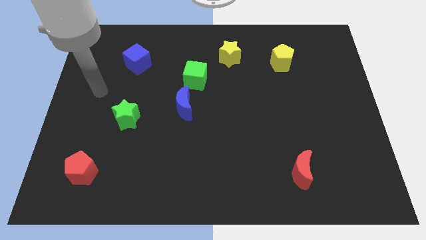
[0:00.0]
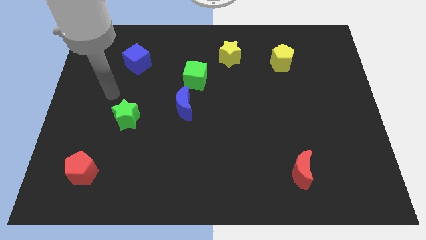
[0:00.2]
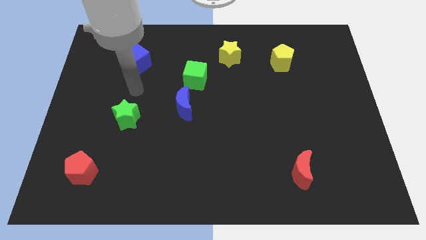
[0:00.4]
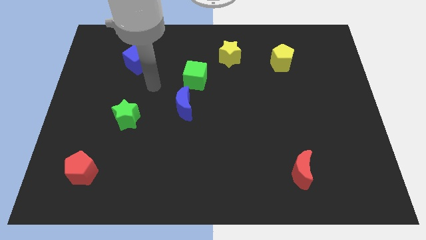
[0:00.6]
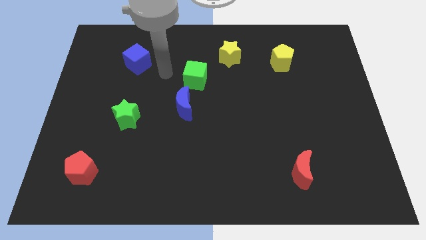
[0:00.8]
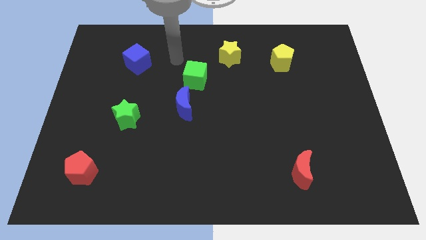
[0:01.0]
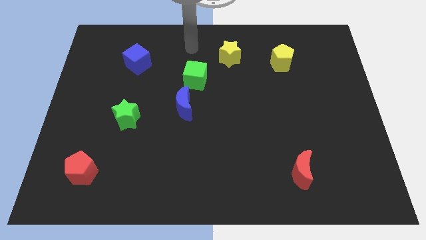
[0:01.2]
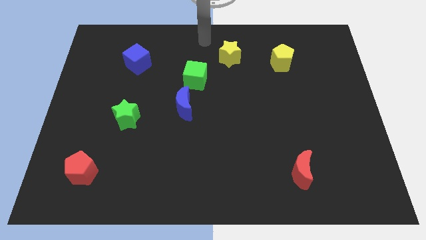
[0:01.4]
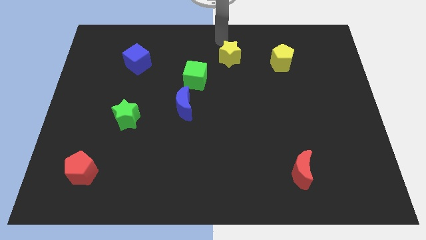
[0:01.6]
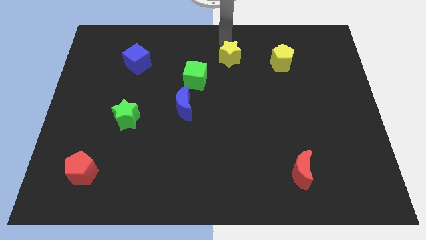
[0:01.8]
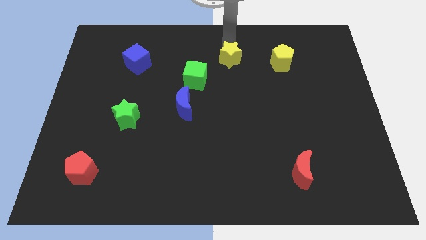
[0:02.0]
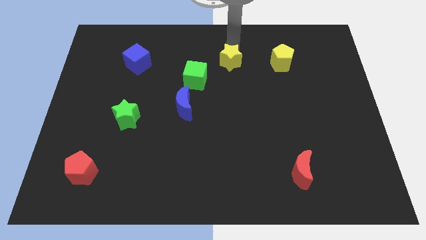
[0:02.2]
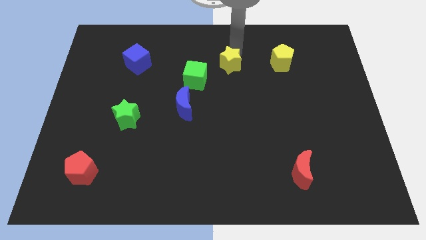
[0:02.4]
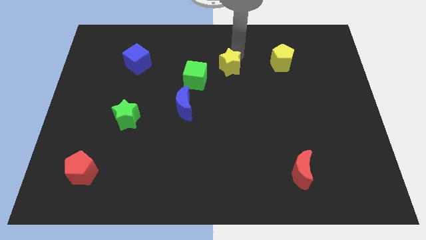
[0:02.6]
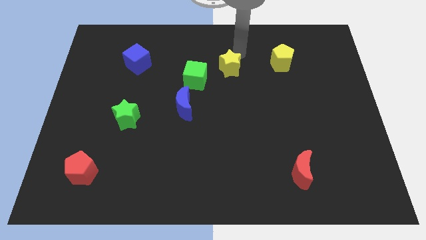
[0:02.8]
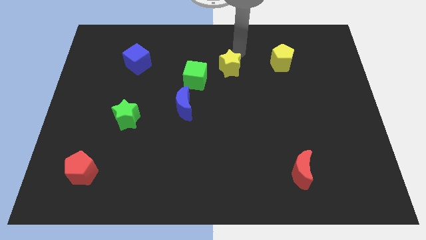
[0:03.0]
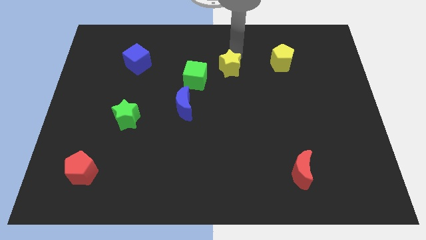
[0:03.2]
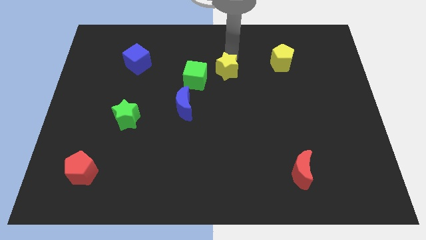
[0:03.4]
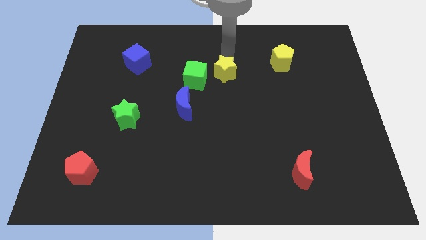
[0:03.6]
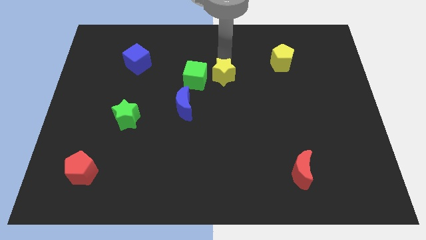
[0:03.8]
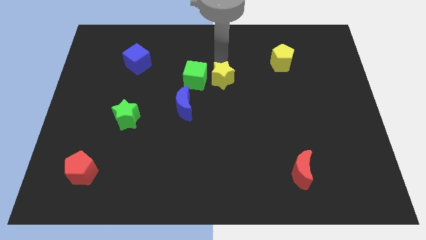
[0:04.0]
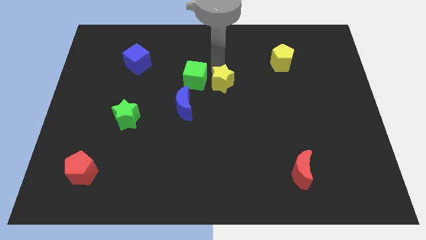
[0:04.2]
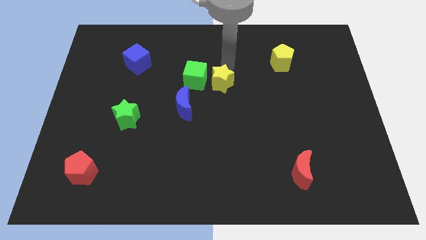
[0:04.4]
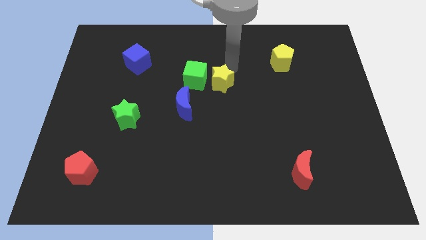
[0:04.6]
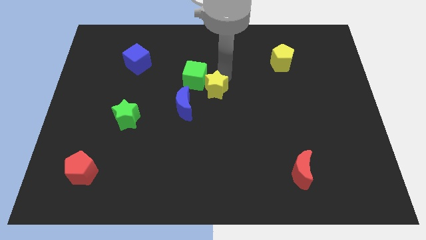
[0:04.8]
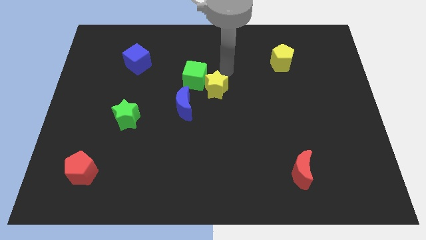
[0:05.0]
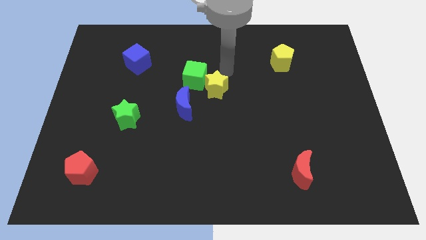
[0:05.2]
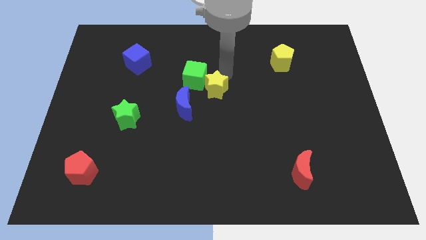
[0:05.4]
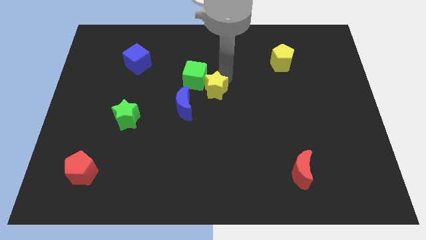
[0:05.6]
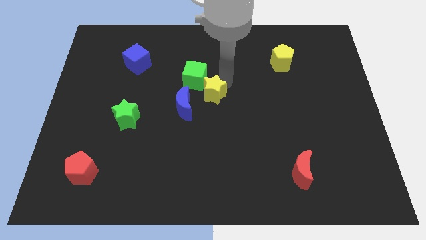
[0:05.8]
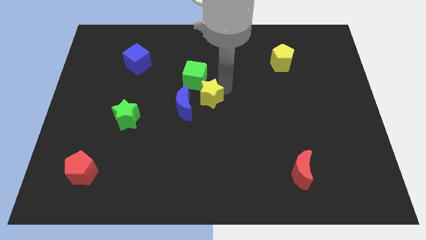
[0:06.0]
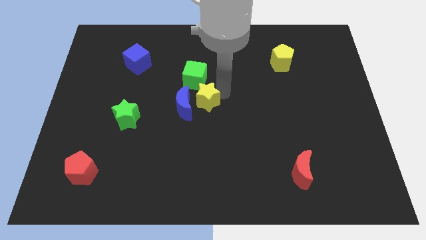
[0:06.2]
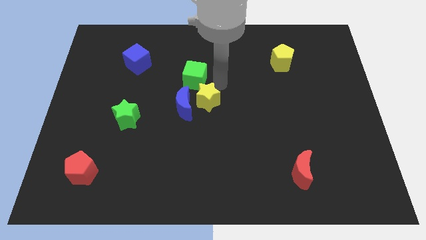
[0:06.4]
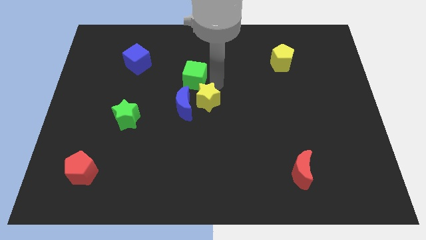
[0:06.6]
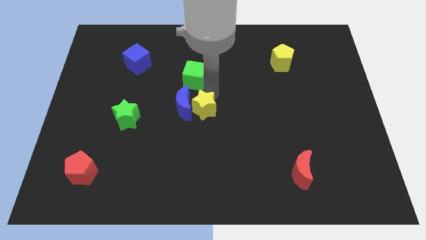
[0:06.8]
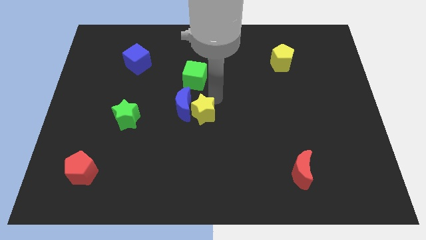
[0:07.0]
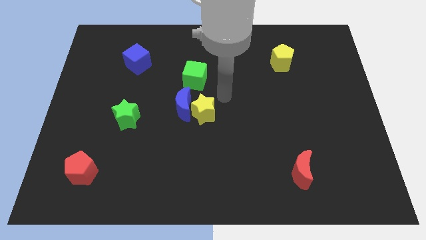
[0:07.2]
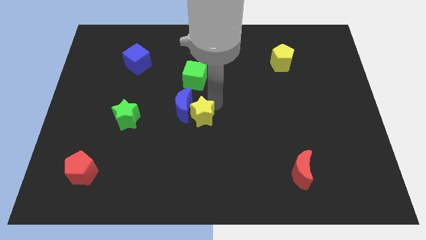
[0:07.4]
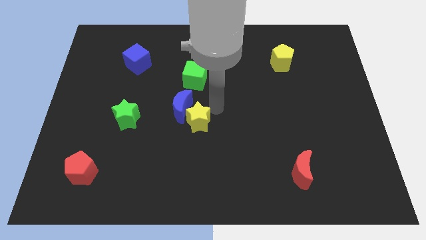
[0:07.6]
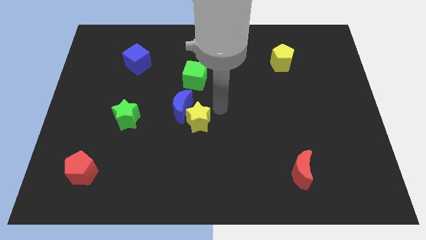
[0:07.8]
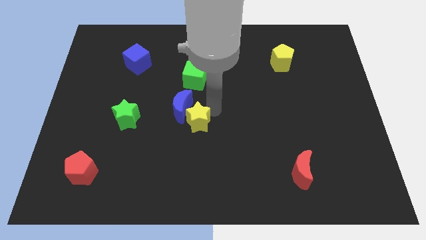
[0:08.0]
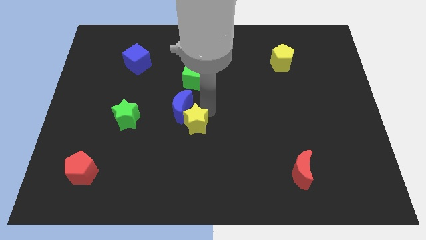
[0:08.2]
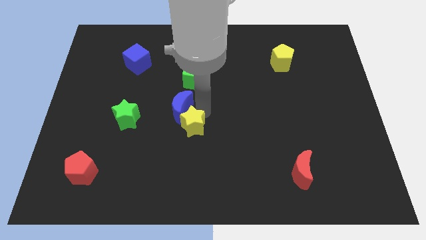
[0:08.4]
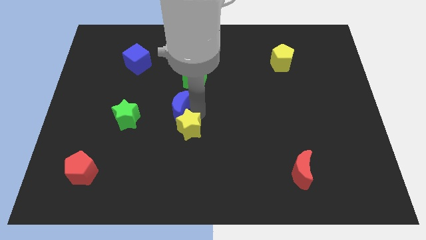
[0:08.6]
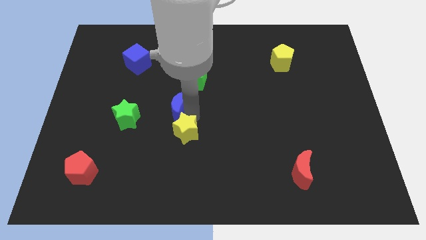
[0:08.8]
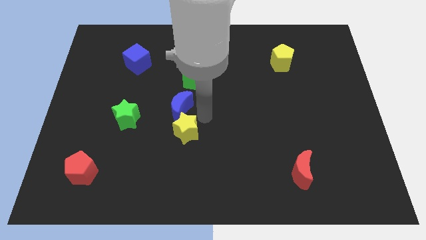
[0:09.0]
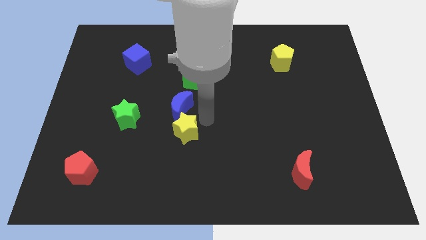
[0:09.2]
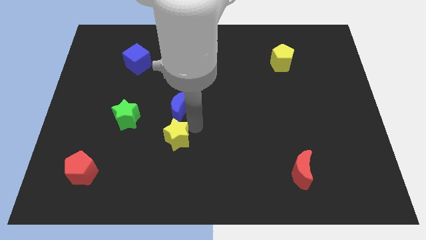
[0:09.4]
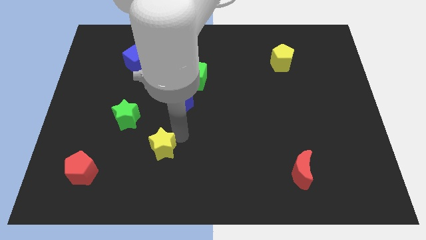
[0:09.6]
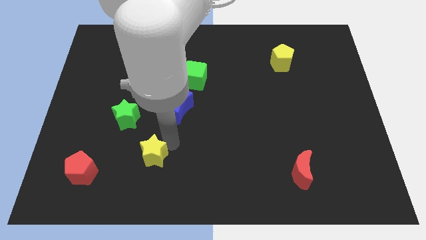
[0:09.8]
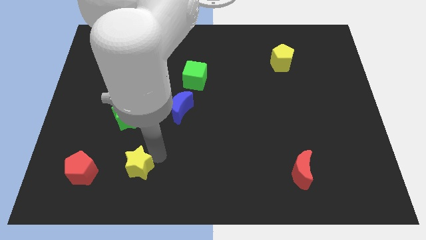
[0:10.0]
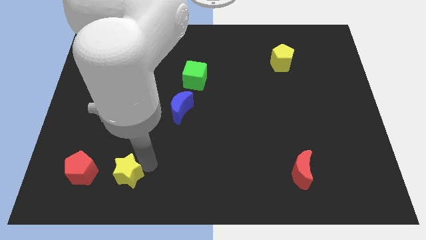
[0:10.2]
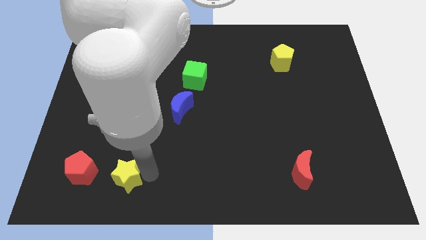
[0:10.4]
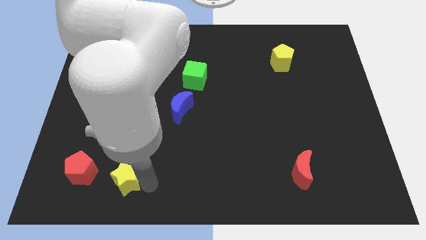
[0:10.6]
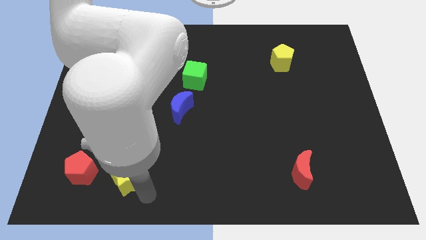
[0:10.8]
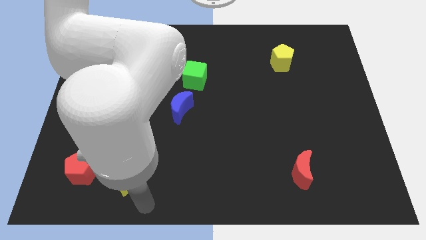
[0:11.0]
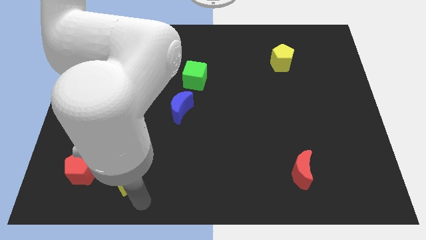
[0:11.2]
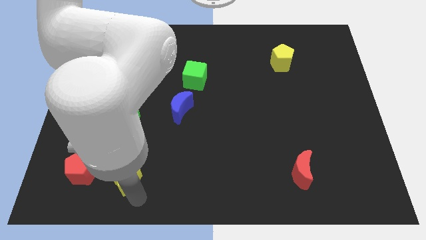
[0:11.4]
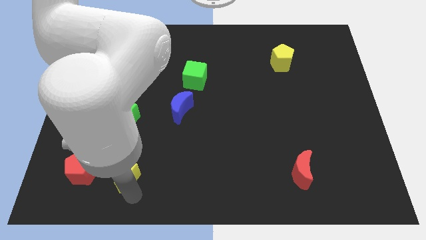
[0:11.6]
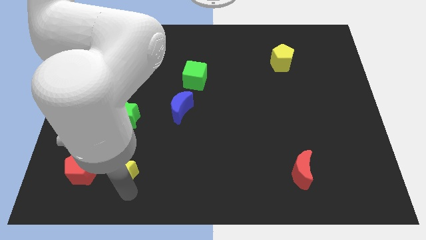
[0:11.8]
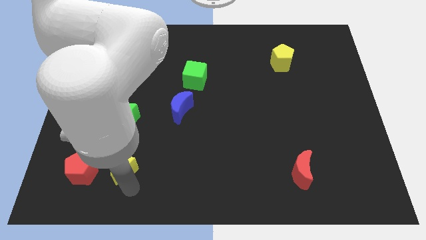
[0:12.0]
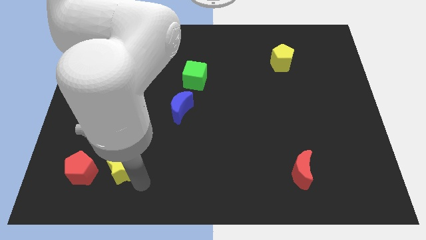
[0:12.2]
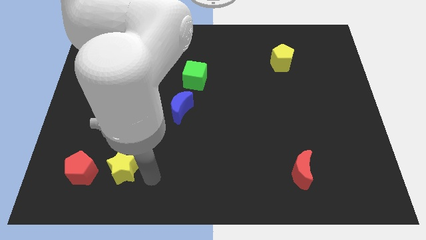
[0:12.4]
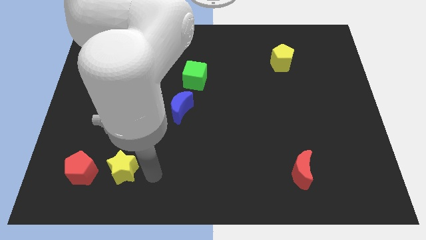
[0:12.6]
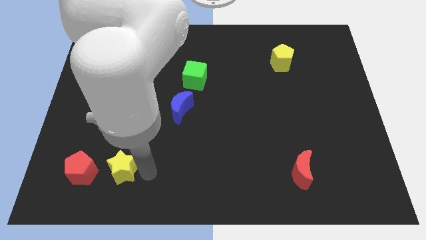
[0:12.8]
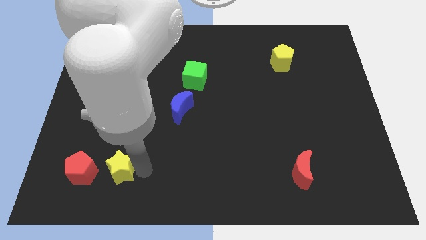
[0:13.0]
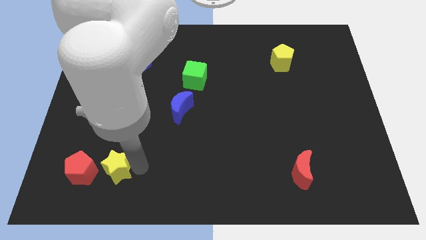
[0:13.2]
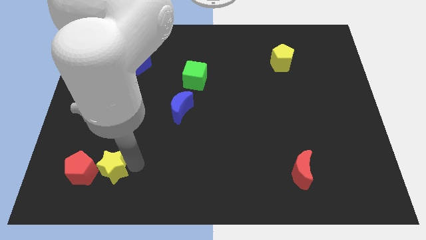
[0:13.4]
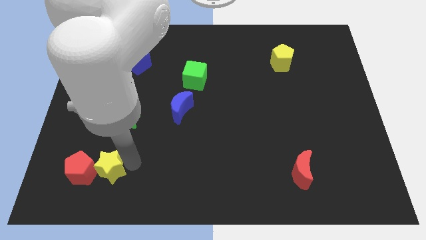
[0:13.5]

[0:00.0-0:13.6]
put the yellow star next to the red pentagon

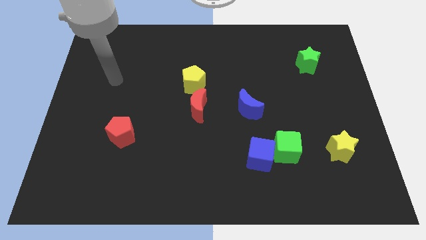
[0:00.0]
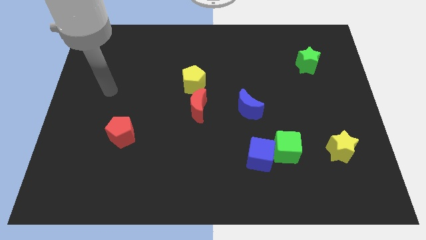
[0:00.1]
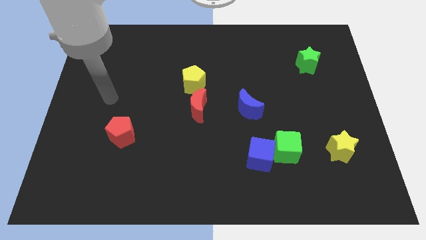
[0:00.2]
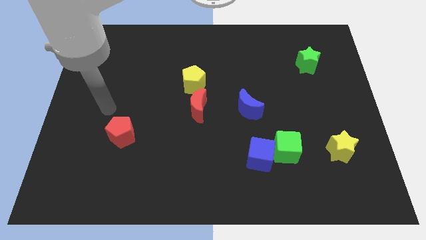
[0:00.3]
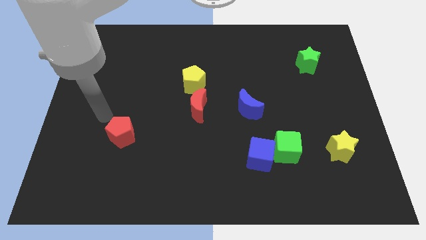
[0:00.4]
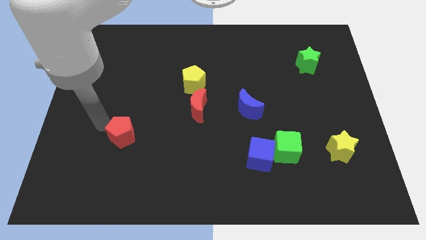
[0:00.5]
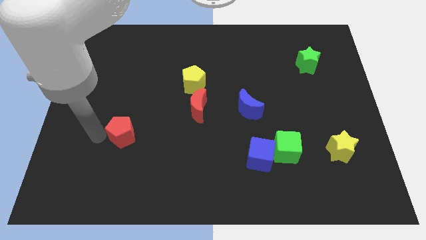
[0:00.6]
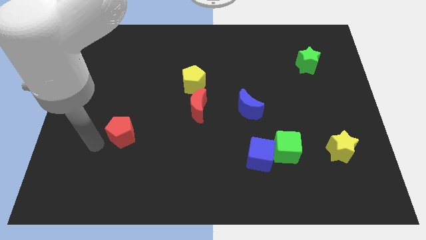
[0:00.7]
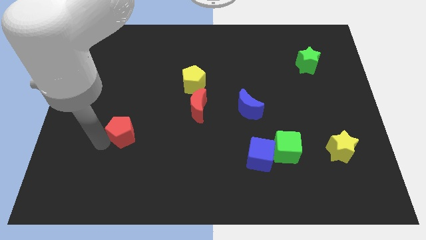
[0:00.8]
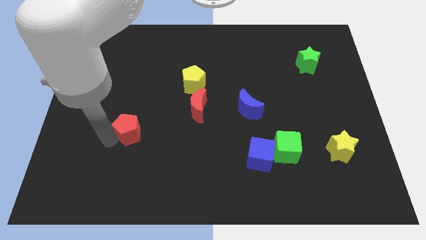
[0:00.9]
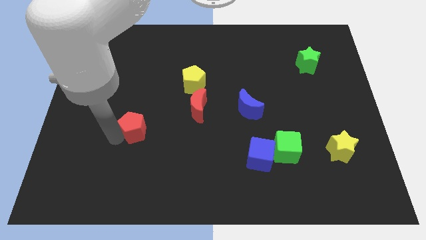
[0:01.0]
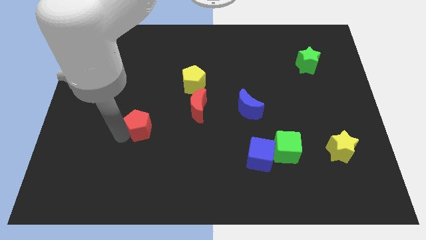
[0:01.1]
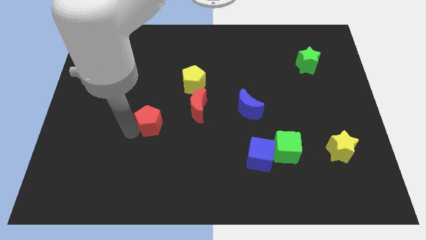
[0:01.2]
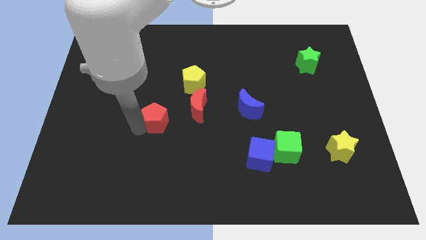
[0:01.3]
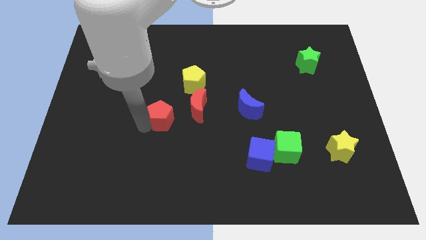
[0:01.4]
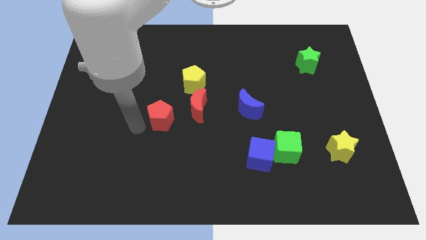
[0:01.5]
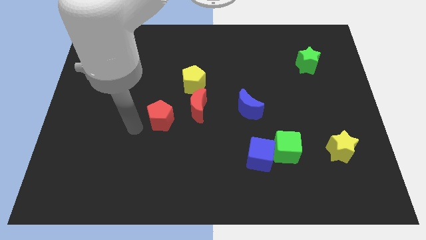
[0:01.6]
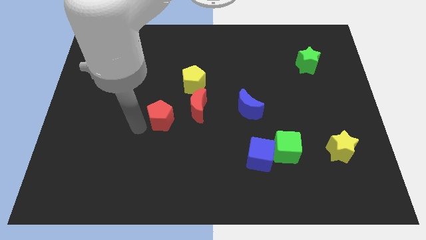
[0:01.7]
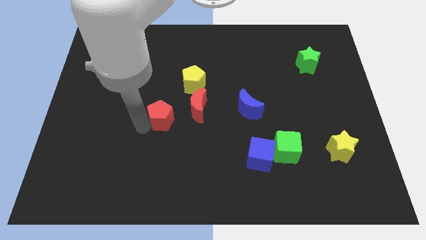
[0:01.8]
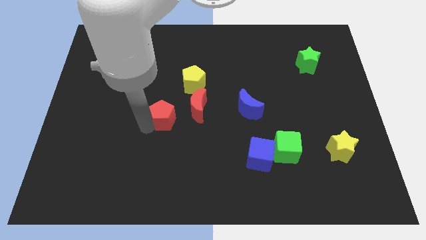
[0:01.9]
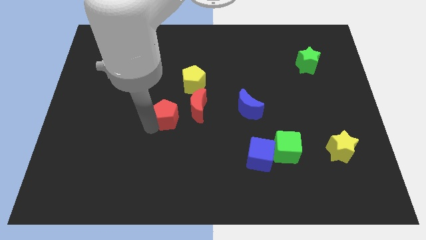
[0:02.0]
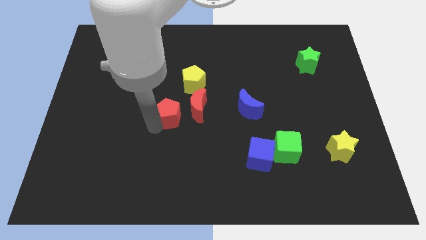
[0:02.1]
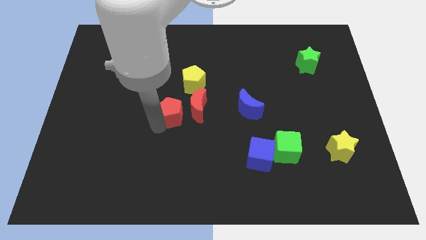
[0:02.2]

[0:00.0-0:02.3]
move the red pentagon next to the red moon
